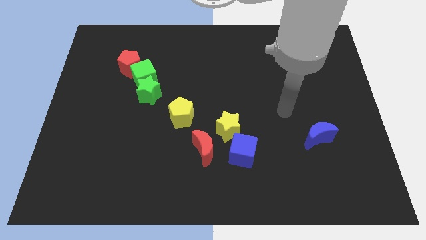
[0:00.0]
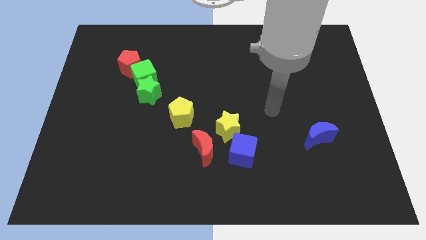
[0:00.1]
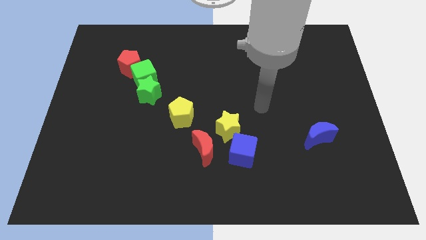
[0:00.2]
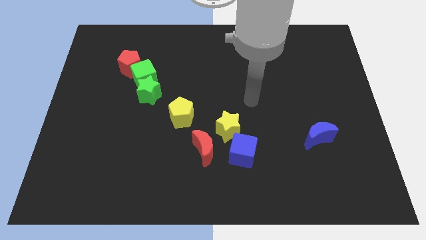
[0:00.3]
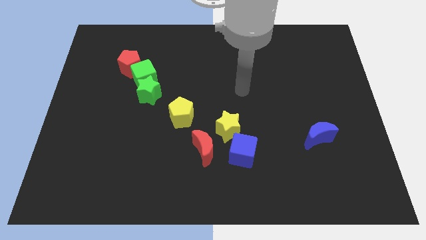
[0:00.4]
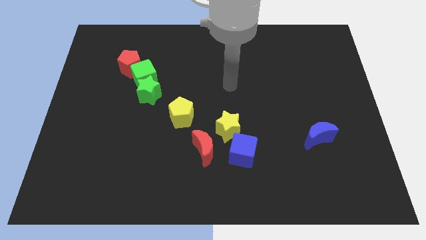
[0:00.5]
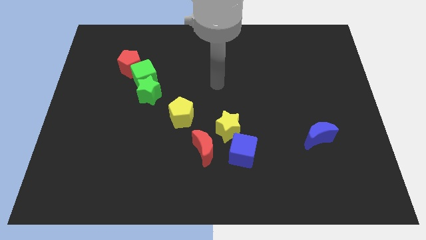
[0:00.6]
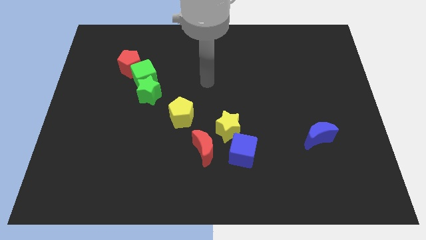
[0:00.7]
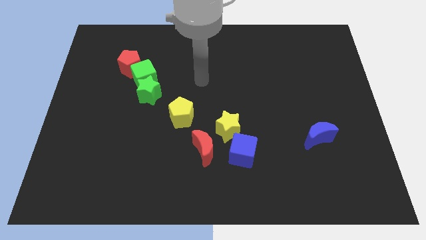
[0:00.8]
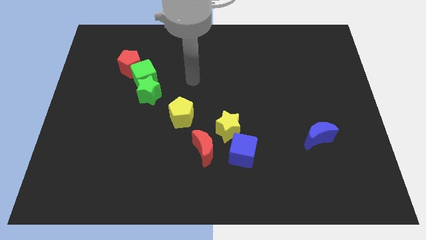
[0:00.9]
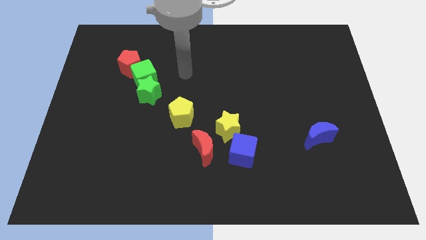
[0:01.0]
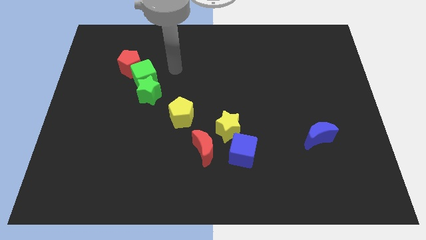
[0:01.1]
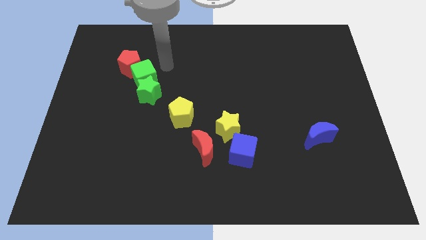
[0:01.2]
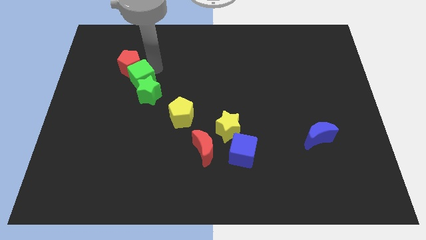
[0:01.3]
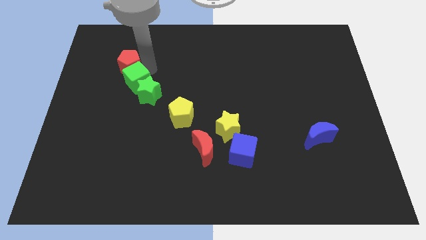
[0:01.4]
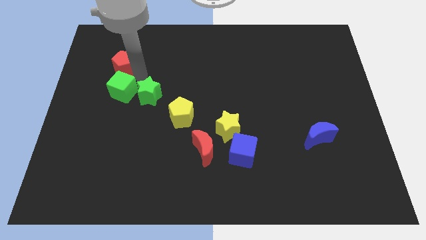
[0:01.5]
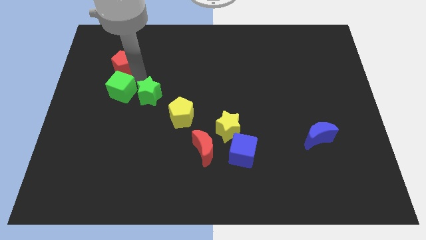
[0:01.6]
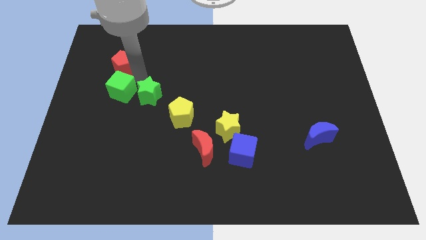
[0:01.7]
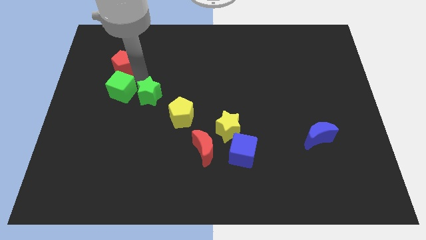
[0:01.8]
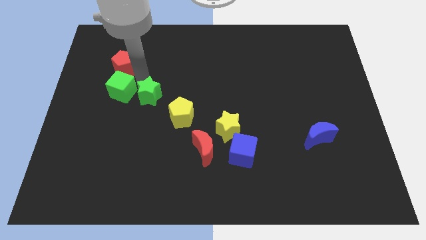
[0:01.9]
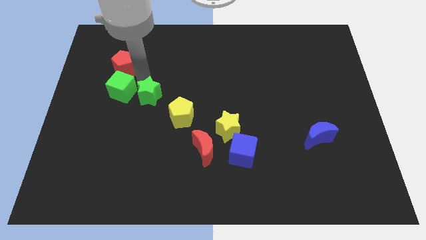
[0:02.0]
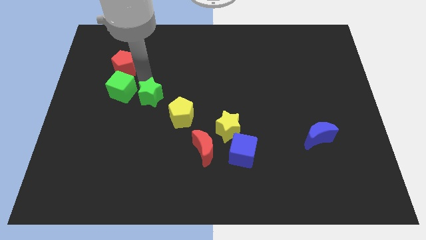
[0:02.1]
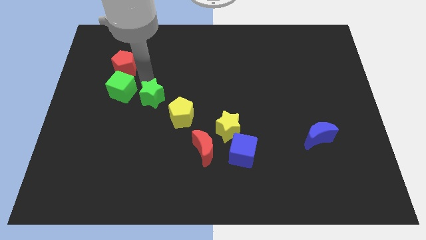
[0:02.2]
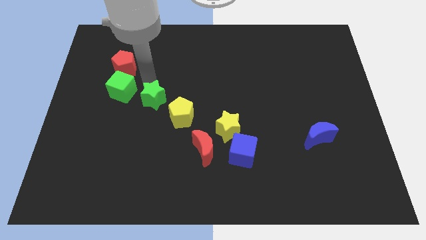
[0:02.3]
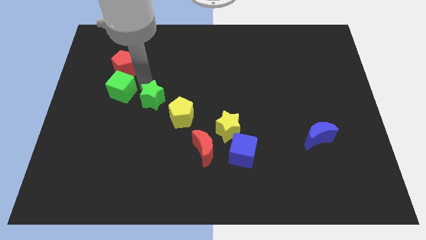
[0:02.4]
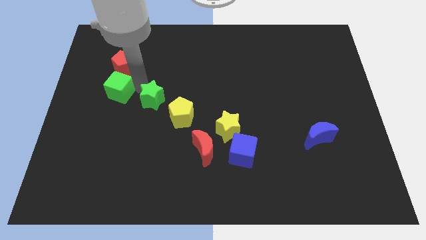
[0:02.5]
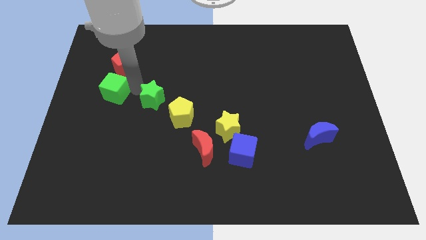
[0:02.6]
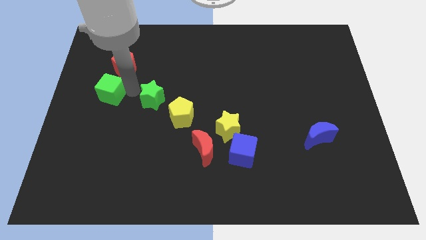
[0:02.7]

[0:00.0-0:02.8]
move the green star away from the green cube

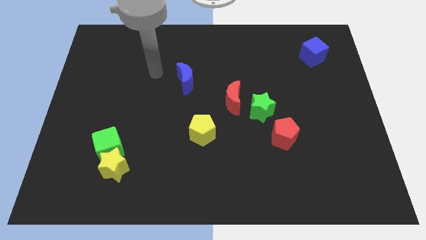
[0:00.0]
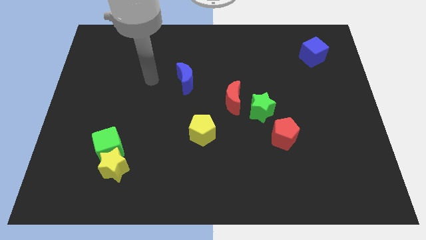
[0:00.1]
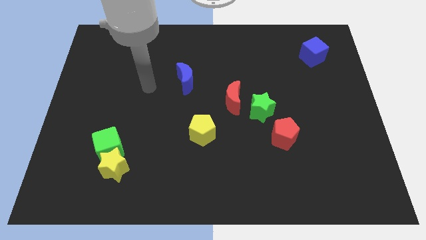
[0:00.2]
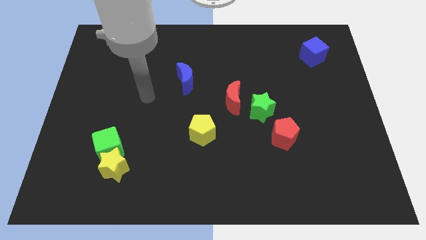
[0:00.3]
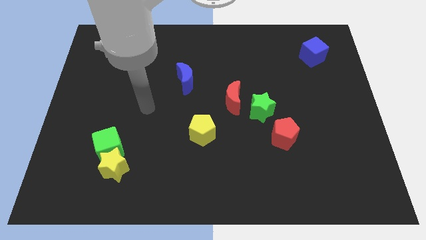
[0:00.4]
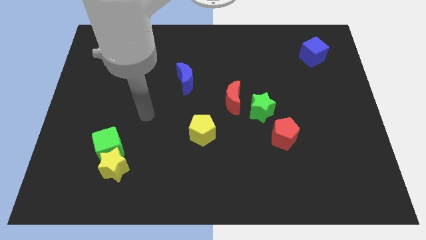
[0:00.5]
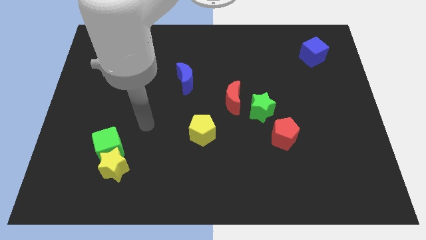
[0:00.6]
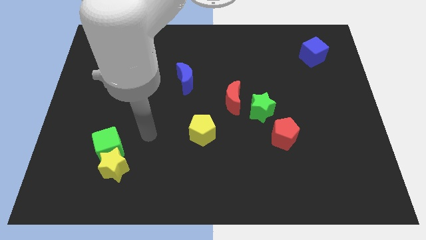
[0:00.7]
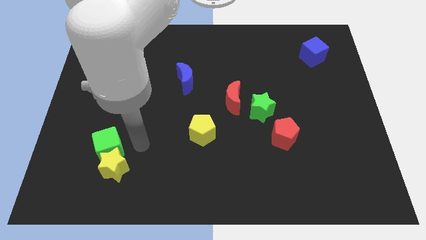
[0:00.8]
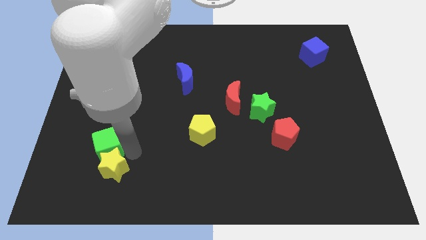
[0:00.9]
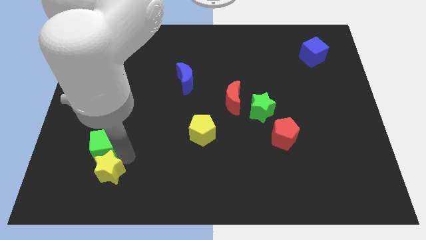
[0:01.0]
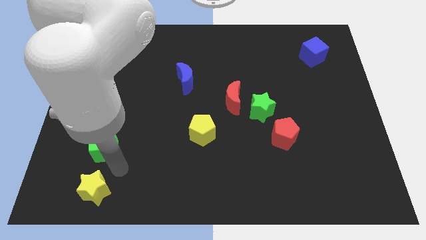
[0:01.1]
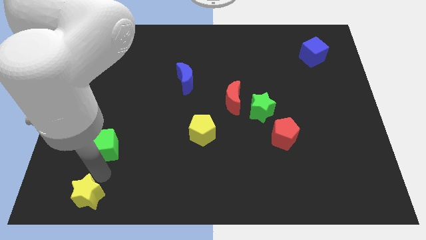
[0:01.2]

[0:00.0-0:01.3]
pull the green cube apart from the yellow star

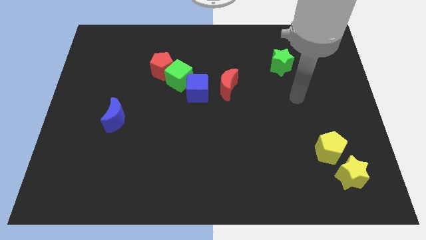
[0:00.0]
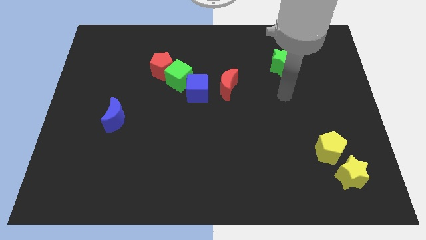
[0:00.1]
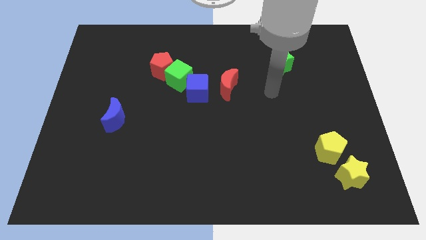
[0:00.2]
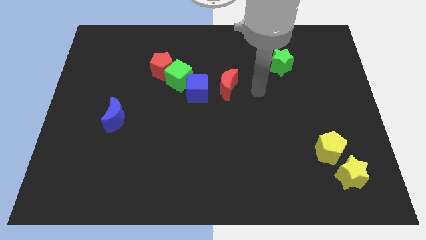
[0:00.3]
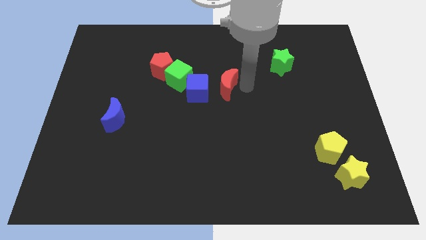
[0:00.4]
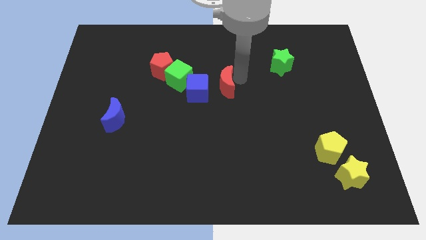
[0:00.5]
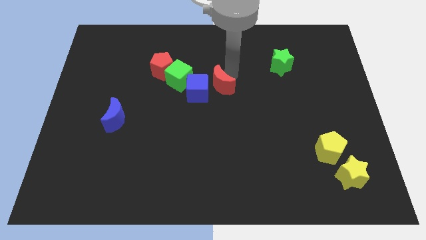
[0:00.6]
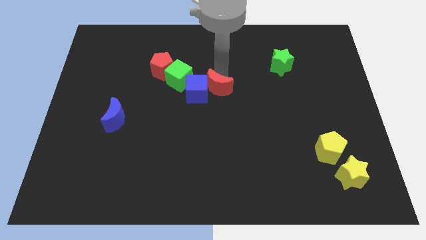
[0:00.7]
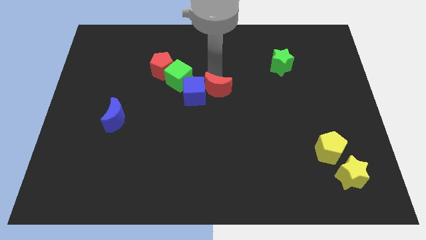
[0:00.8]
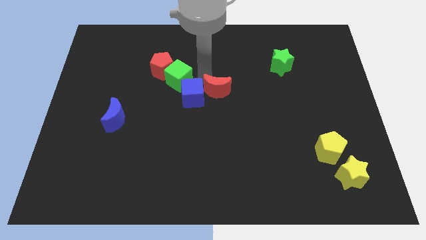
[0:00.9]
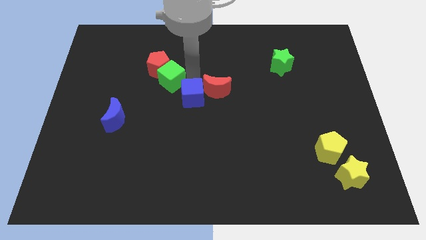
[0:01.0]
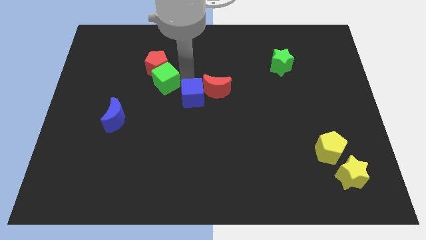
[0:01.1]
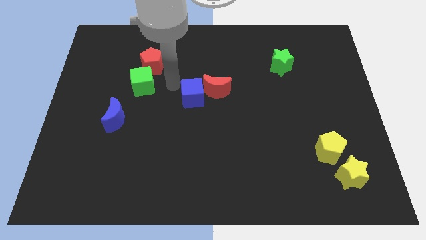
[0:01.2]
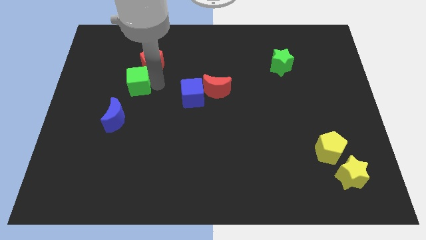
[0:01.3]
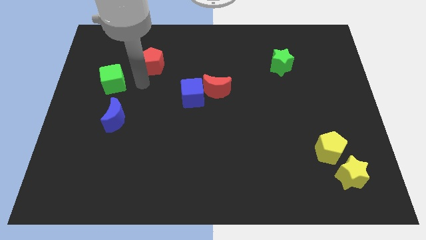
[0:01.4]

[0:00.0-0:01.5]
pull the red pentagon apart from the green cube

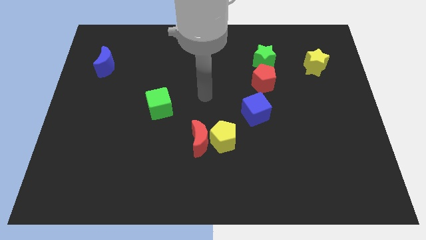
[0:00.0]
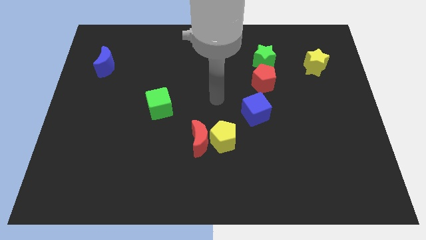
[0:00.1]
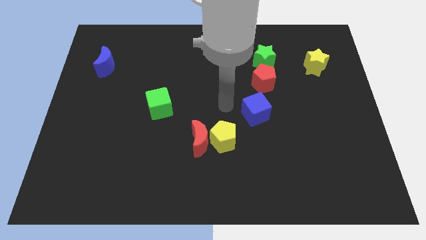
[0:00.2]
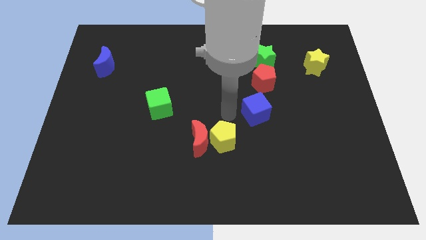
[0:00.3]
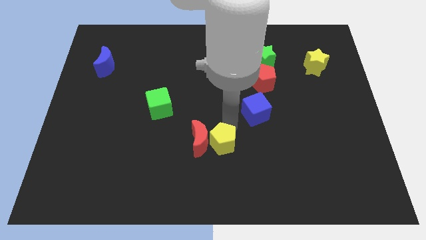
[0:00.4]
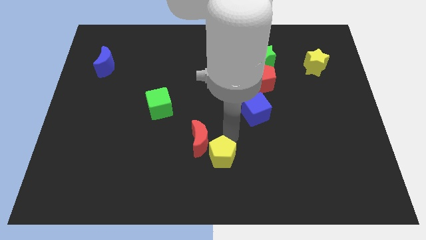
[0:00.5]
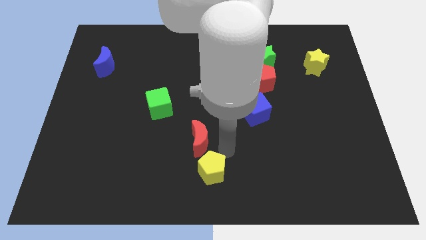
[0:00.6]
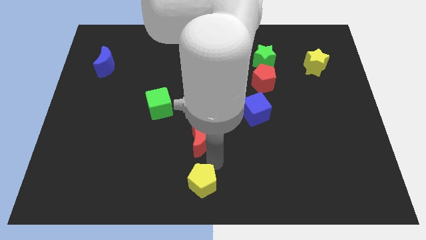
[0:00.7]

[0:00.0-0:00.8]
pull the red moon apart from the yellow pentagon

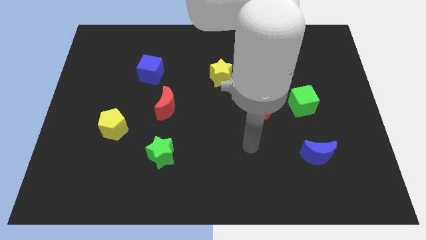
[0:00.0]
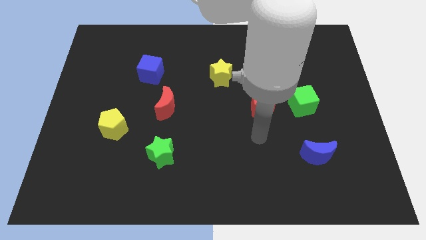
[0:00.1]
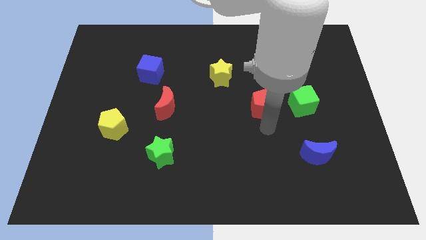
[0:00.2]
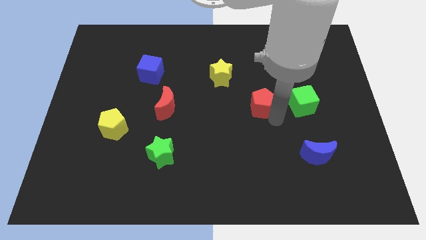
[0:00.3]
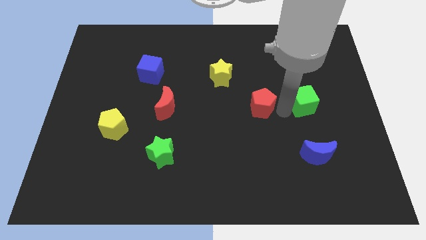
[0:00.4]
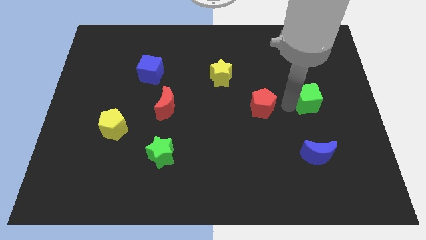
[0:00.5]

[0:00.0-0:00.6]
move the red pentagon away from the green cube

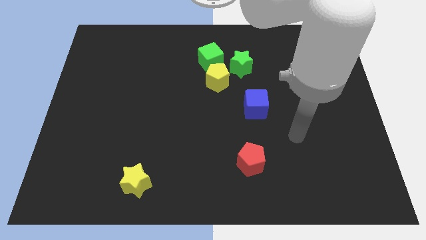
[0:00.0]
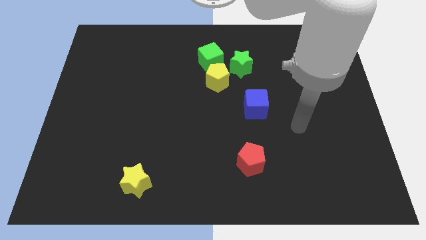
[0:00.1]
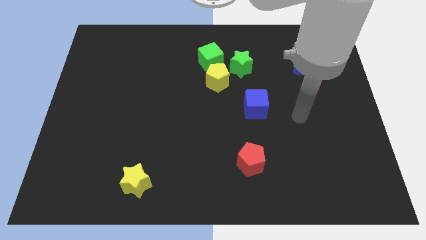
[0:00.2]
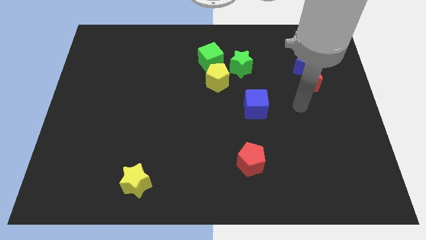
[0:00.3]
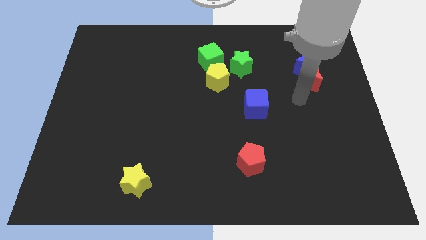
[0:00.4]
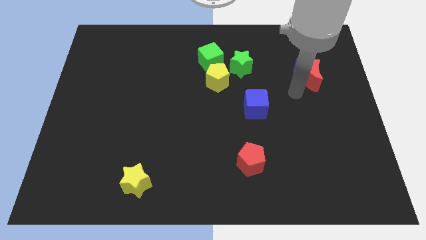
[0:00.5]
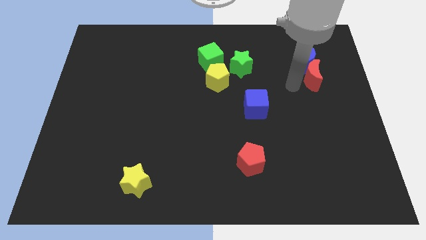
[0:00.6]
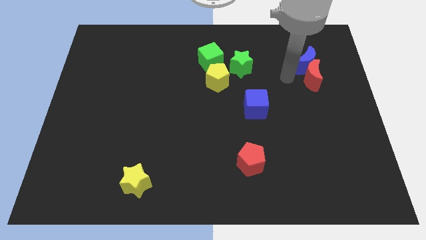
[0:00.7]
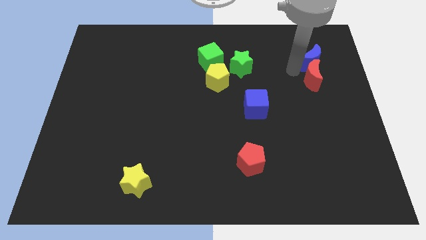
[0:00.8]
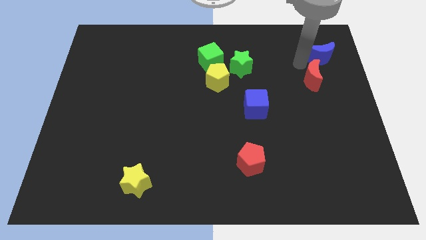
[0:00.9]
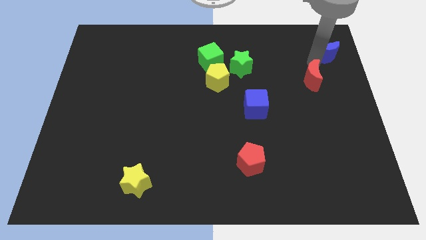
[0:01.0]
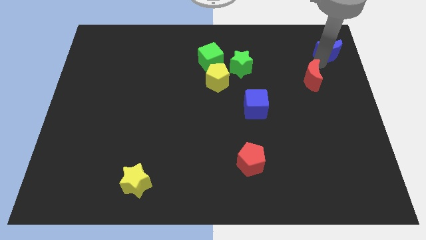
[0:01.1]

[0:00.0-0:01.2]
pull the red moon apart from the blue moon

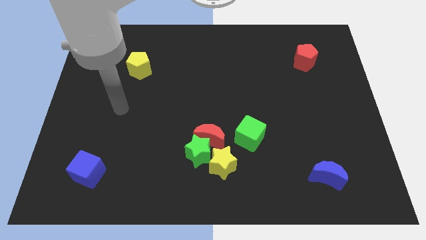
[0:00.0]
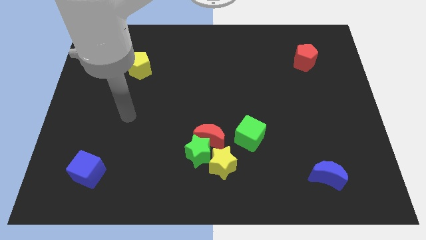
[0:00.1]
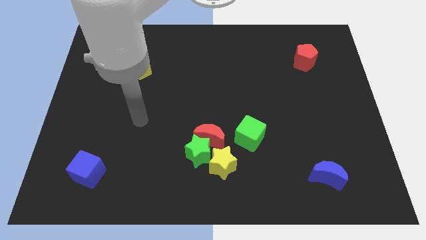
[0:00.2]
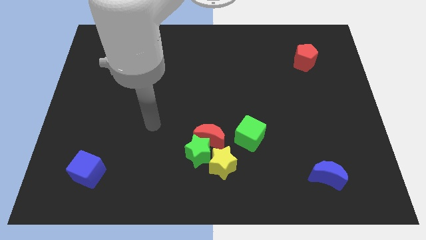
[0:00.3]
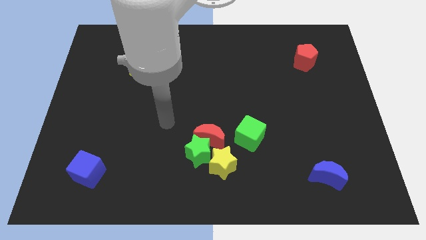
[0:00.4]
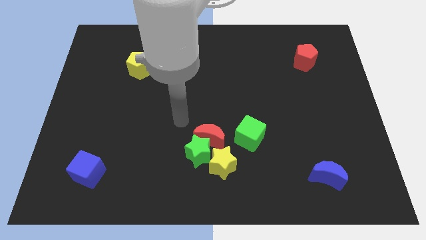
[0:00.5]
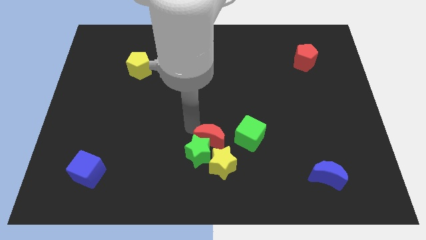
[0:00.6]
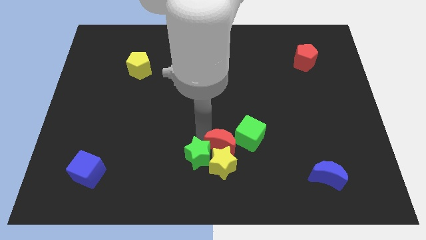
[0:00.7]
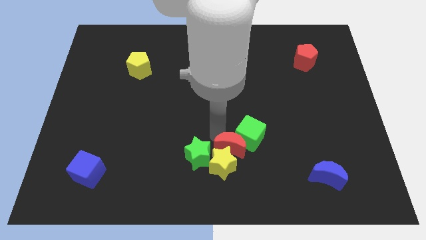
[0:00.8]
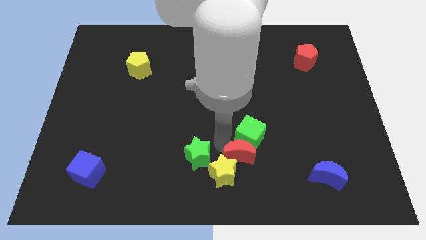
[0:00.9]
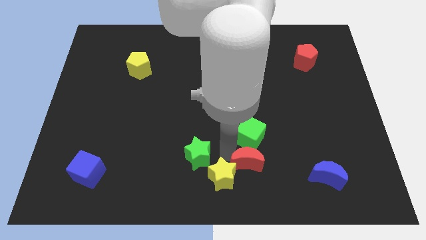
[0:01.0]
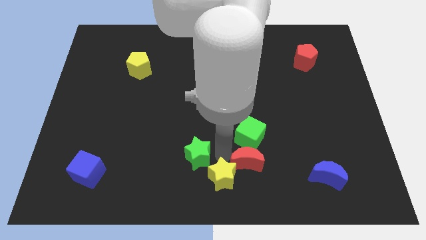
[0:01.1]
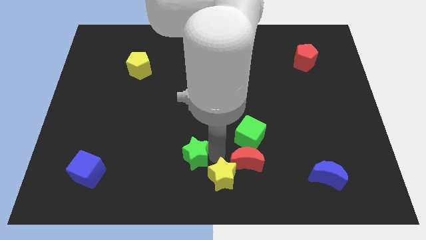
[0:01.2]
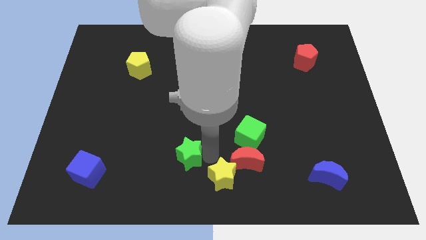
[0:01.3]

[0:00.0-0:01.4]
move the green star away from the red moon and yellow star
